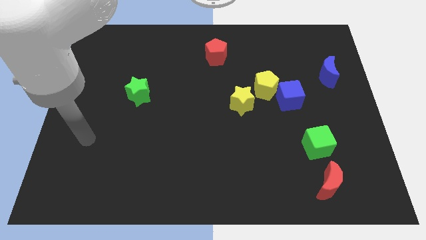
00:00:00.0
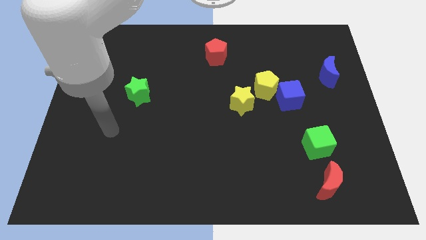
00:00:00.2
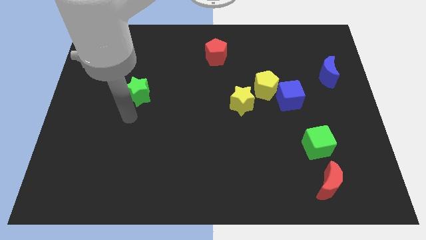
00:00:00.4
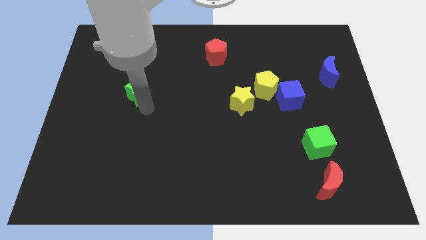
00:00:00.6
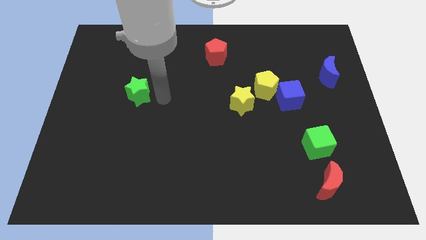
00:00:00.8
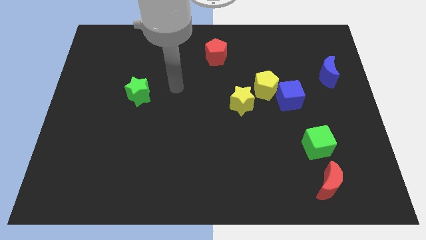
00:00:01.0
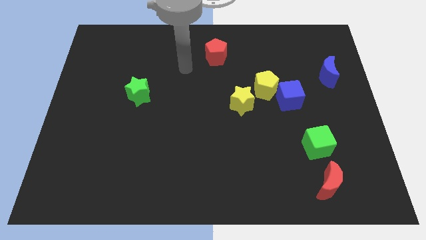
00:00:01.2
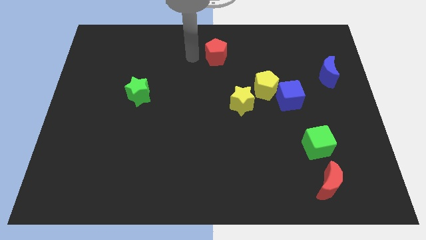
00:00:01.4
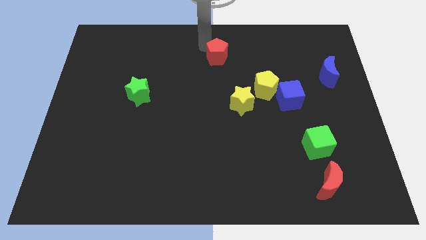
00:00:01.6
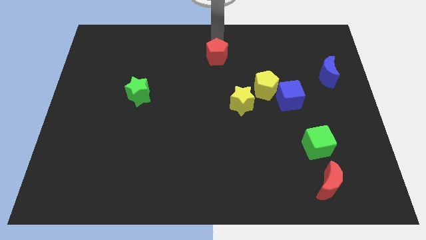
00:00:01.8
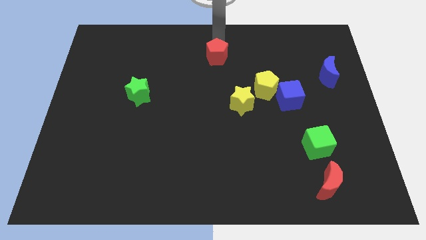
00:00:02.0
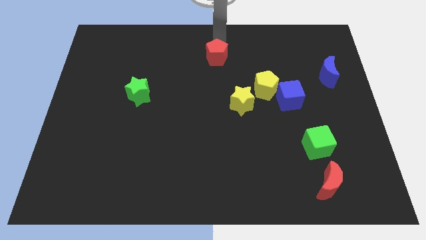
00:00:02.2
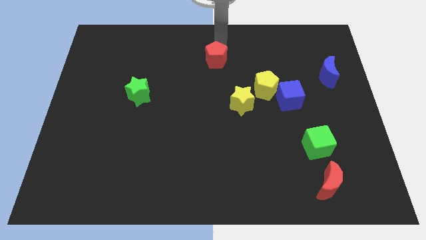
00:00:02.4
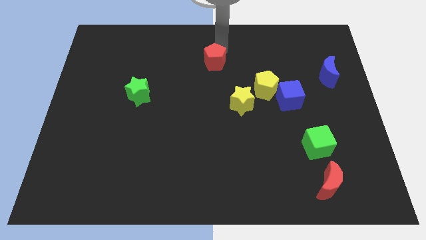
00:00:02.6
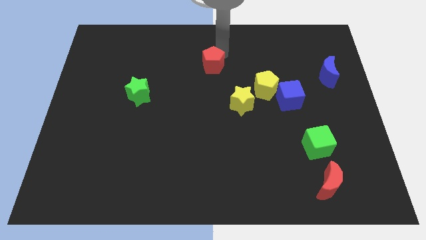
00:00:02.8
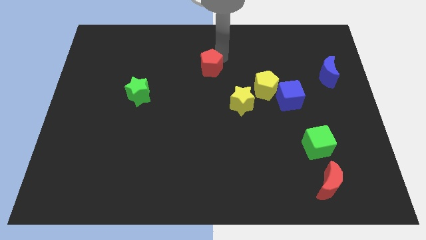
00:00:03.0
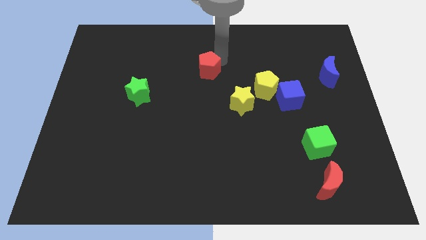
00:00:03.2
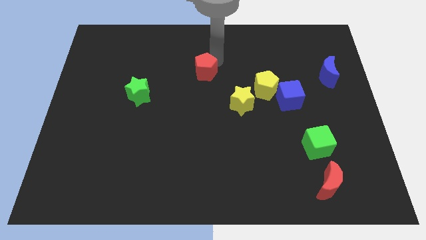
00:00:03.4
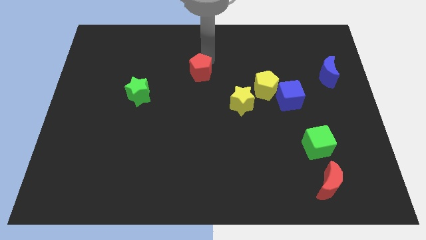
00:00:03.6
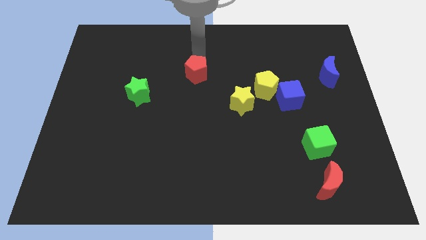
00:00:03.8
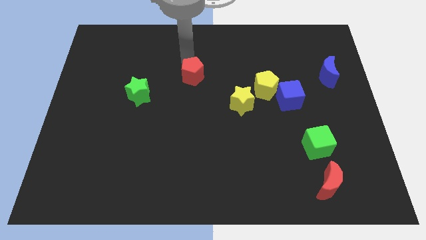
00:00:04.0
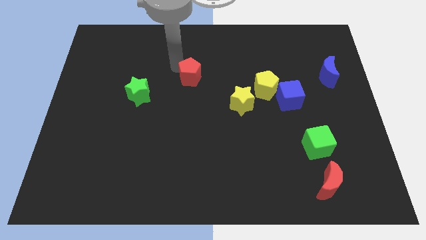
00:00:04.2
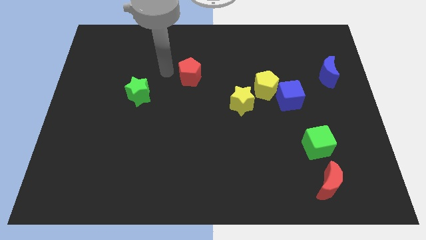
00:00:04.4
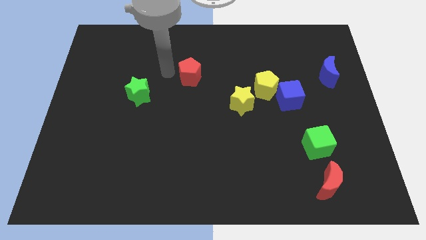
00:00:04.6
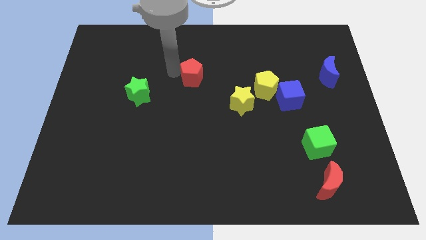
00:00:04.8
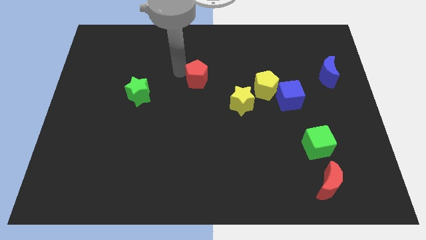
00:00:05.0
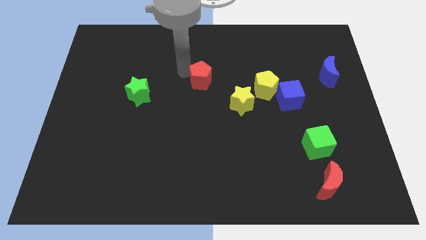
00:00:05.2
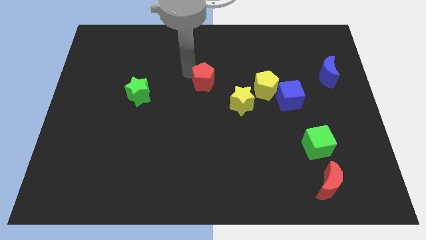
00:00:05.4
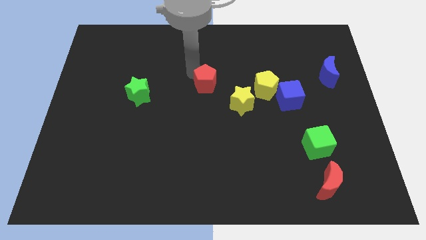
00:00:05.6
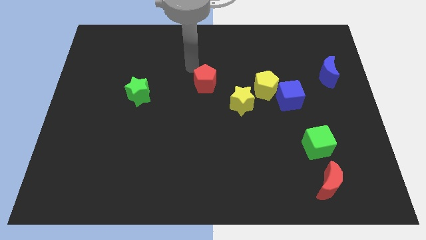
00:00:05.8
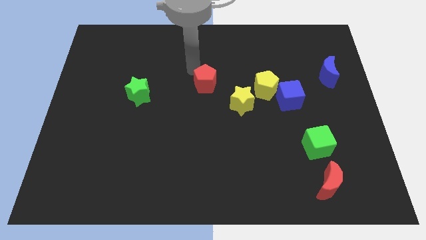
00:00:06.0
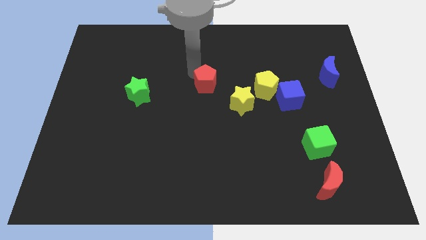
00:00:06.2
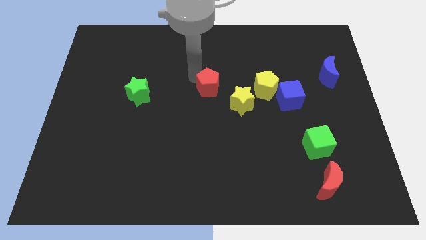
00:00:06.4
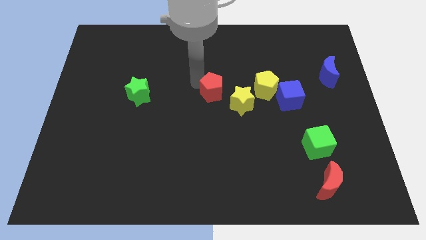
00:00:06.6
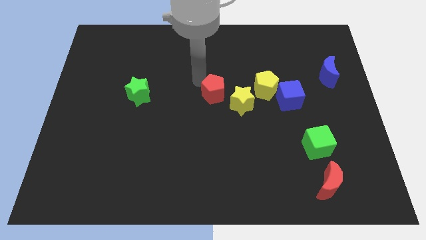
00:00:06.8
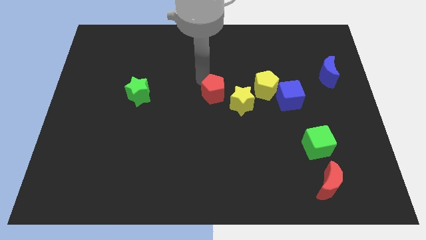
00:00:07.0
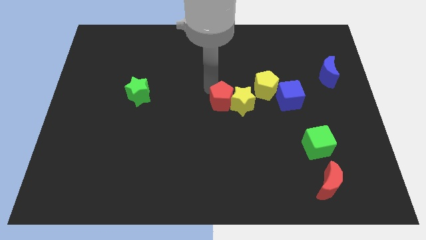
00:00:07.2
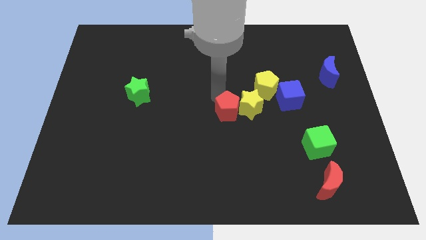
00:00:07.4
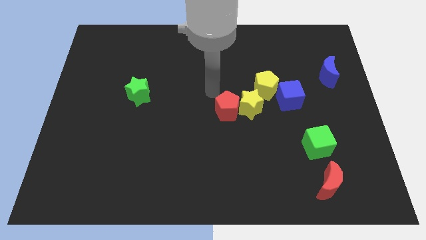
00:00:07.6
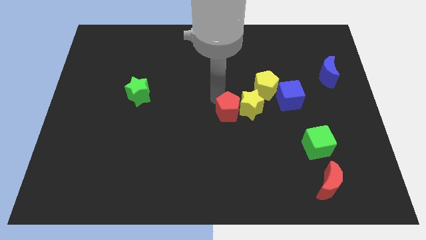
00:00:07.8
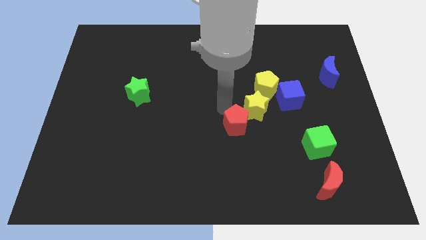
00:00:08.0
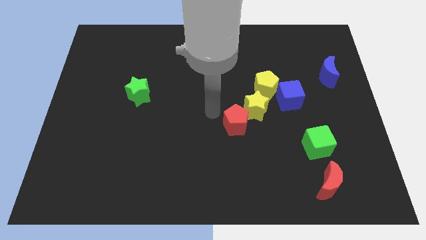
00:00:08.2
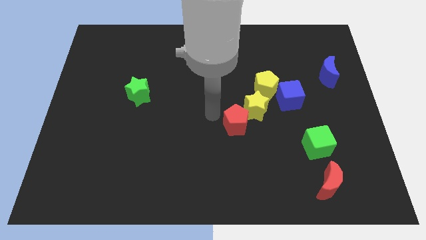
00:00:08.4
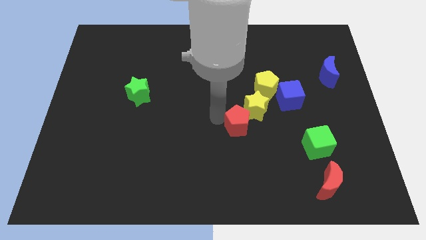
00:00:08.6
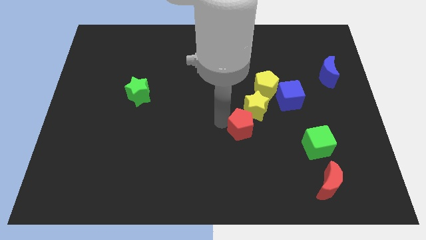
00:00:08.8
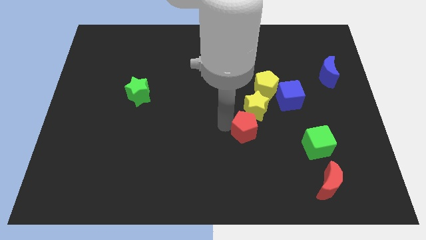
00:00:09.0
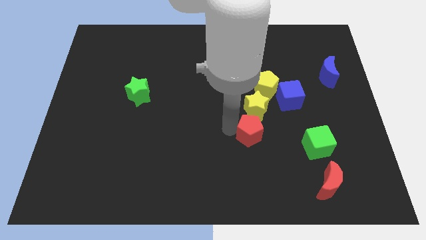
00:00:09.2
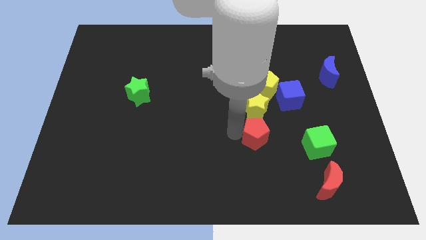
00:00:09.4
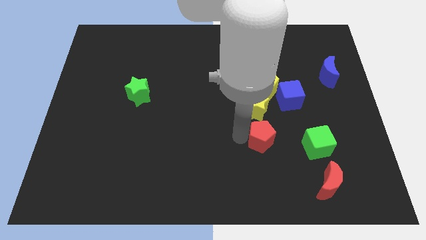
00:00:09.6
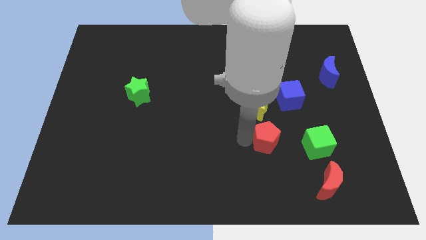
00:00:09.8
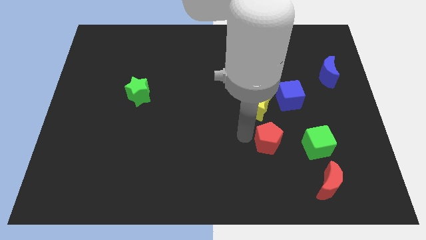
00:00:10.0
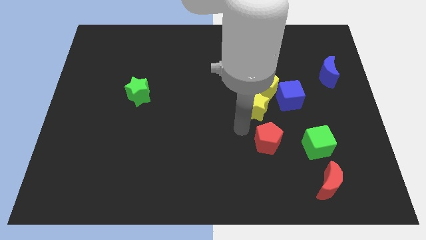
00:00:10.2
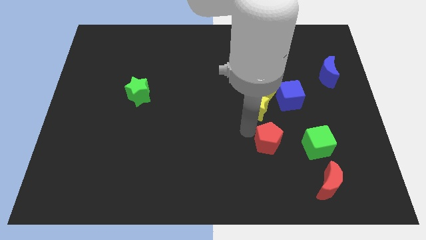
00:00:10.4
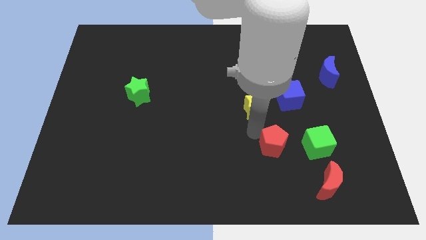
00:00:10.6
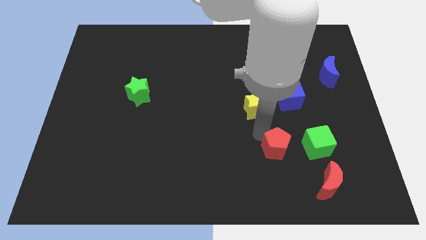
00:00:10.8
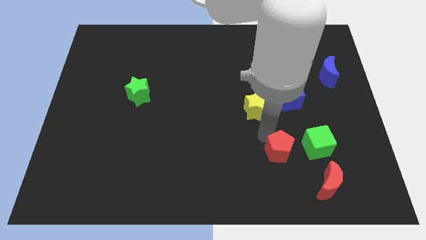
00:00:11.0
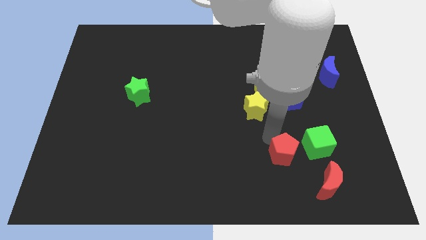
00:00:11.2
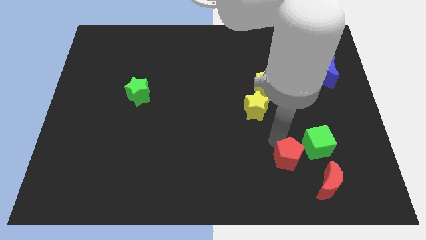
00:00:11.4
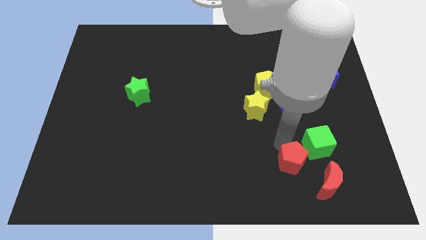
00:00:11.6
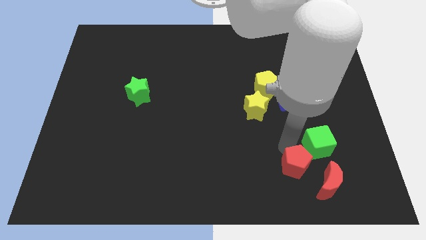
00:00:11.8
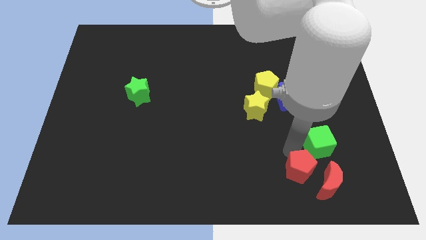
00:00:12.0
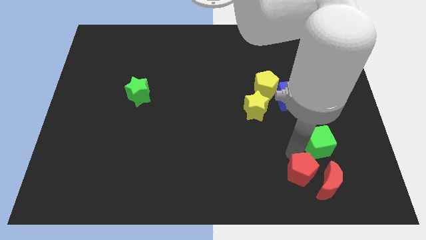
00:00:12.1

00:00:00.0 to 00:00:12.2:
put the red pentagon next to the red moon
